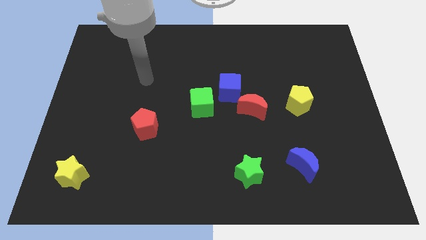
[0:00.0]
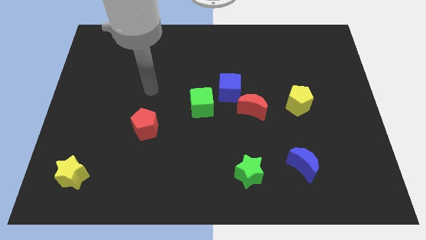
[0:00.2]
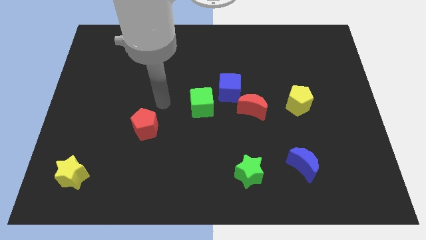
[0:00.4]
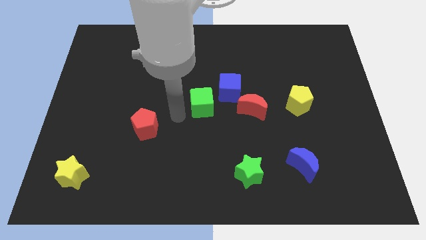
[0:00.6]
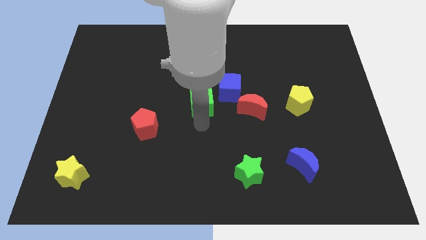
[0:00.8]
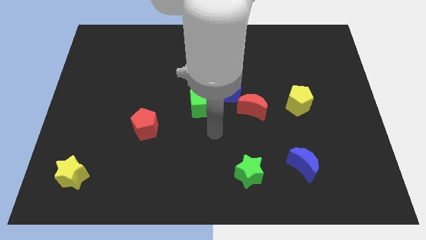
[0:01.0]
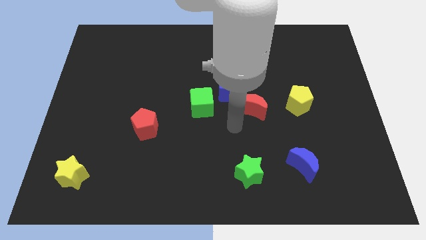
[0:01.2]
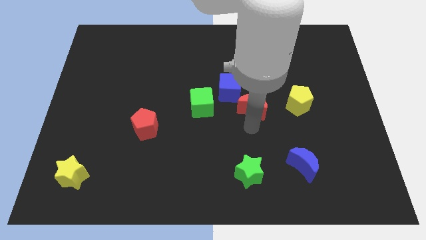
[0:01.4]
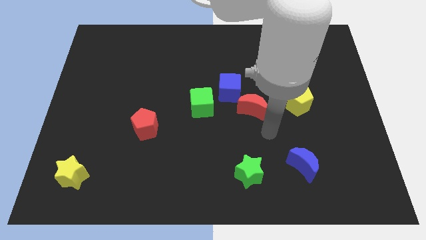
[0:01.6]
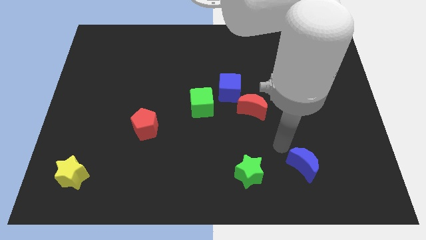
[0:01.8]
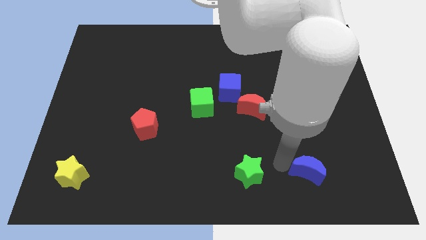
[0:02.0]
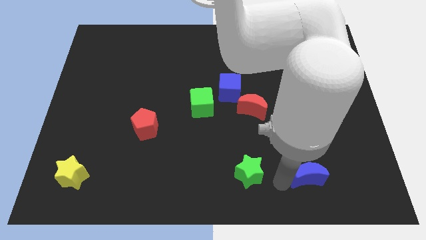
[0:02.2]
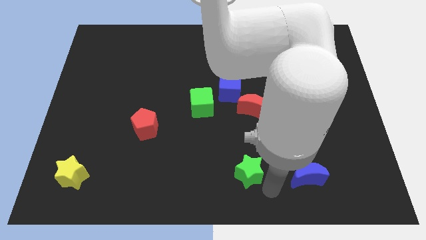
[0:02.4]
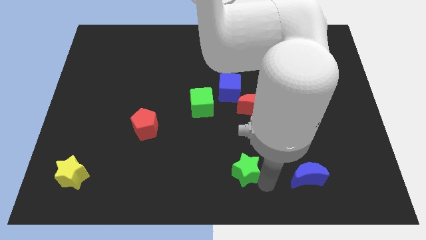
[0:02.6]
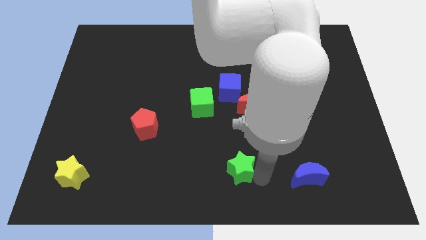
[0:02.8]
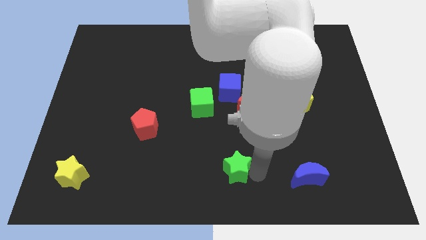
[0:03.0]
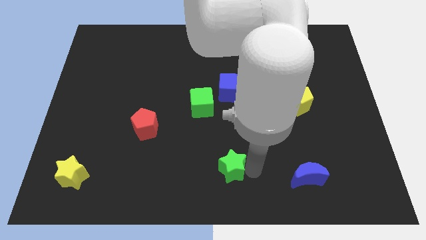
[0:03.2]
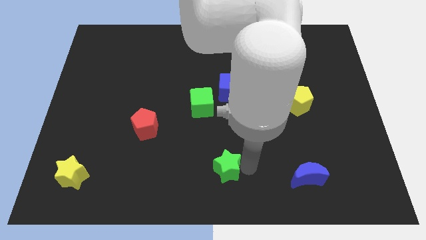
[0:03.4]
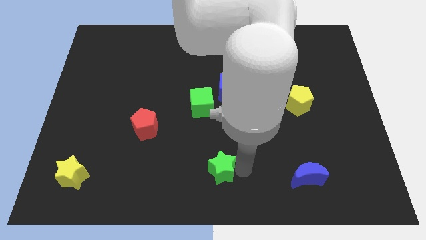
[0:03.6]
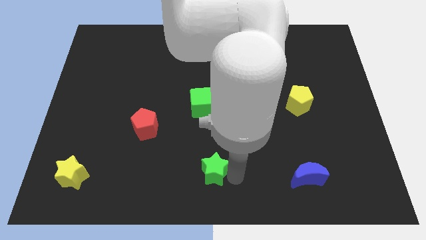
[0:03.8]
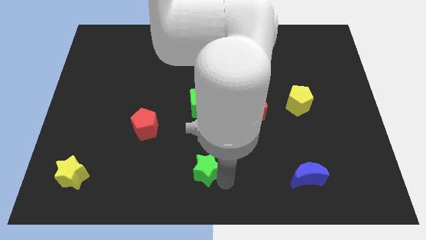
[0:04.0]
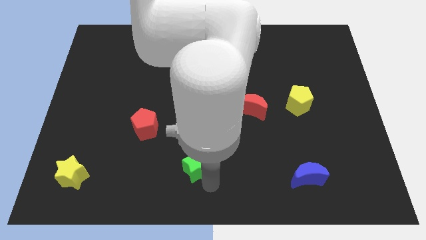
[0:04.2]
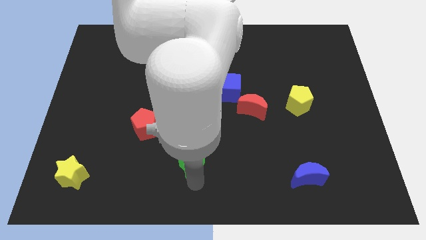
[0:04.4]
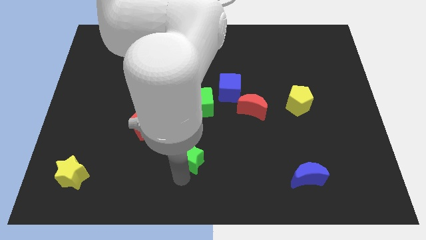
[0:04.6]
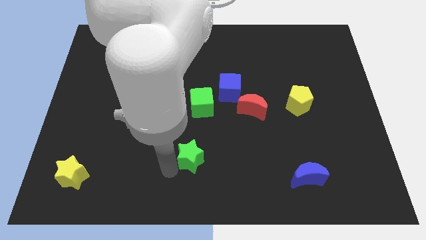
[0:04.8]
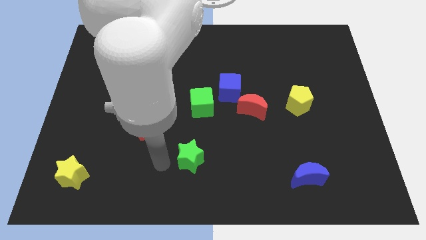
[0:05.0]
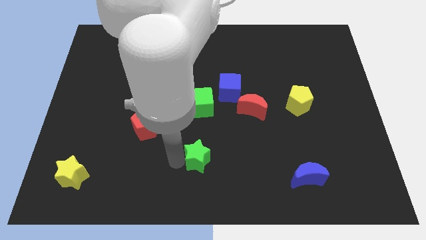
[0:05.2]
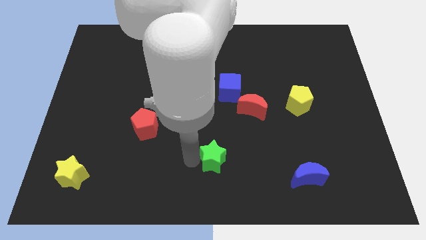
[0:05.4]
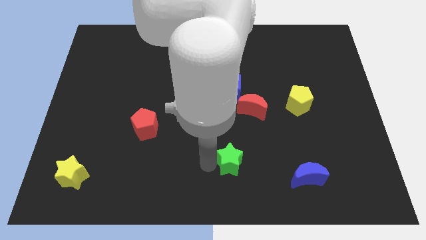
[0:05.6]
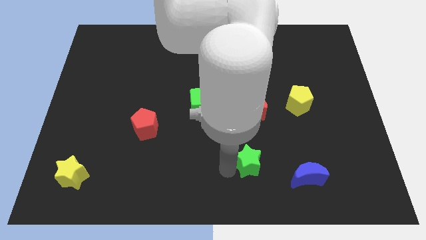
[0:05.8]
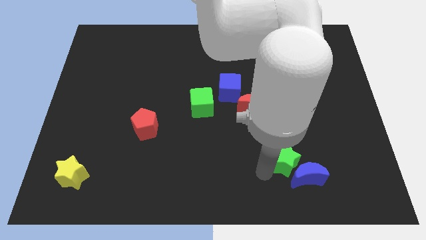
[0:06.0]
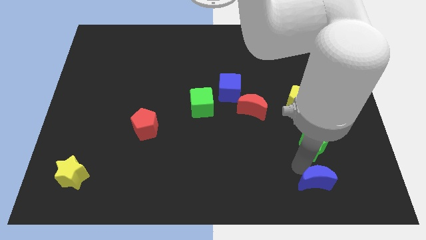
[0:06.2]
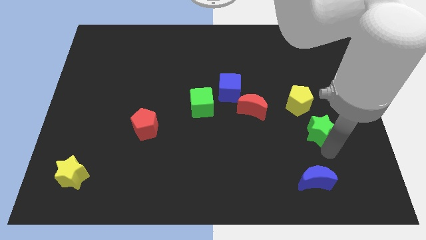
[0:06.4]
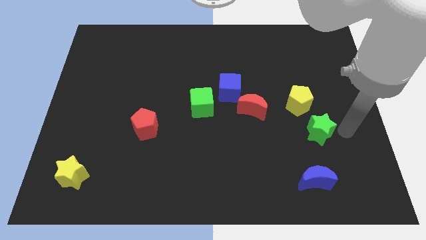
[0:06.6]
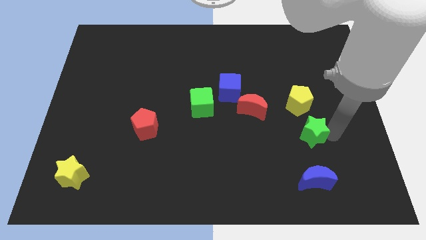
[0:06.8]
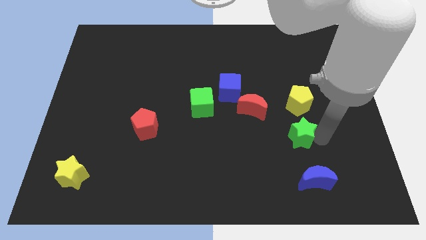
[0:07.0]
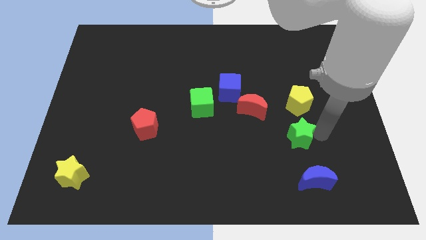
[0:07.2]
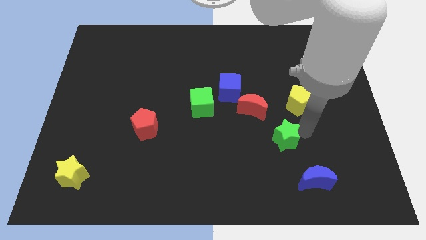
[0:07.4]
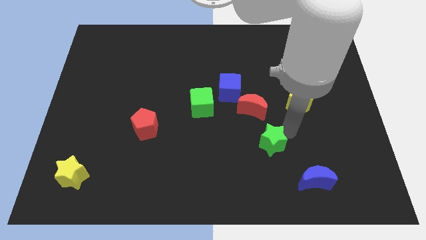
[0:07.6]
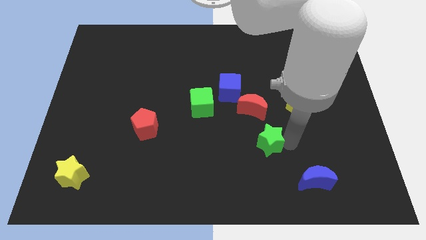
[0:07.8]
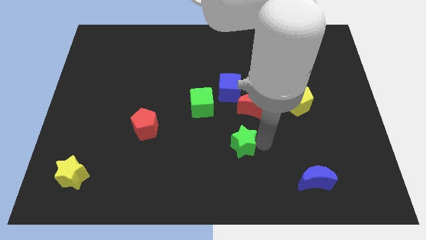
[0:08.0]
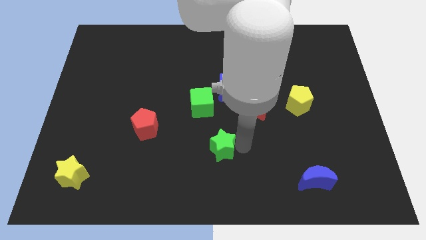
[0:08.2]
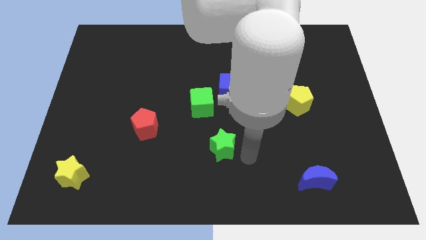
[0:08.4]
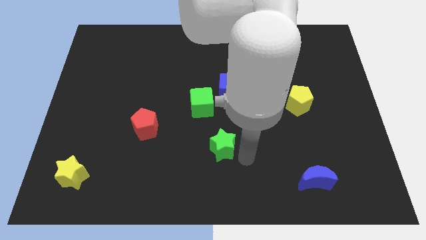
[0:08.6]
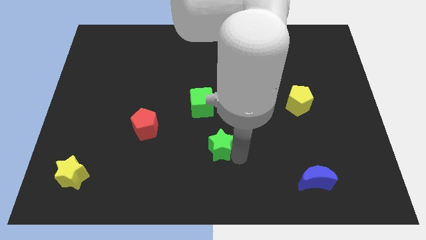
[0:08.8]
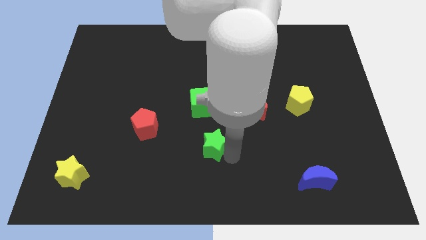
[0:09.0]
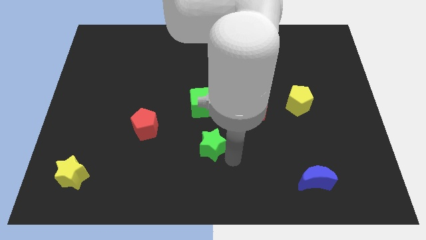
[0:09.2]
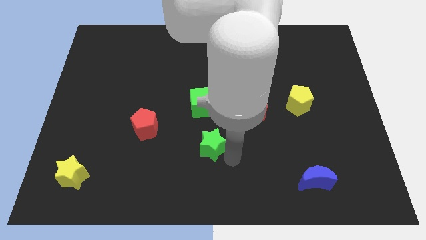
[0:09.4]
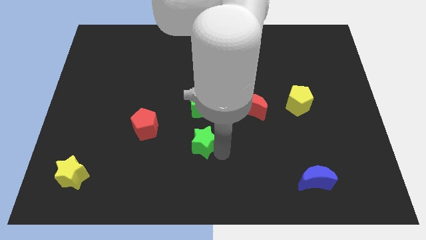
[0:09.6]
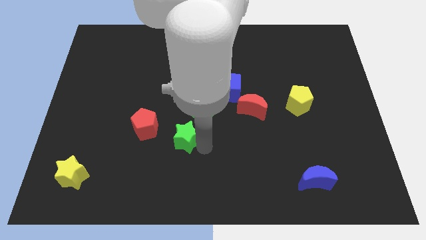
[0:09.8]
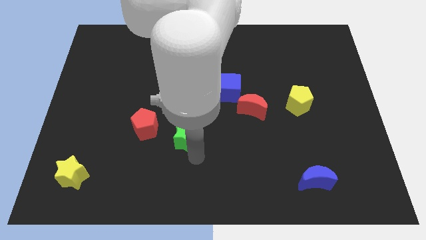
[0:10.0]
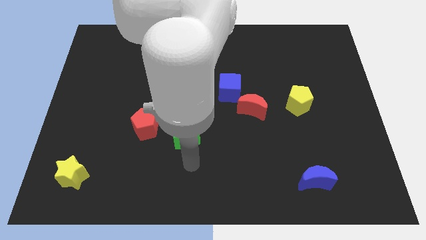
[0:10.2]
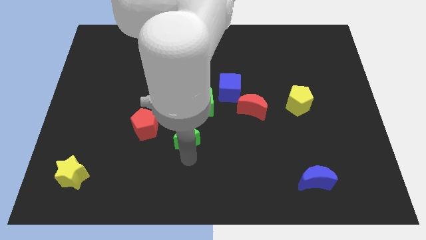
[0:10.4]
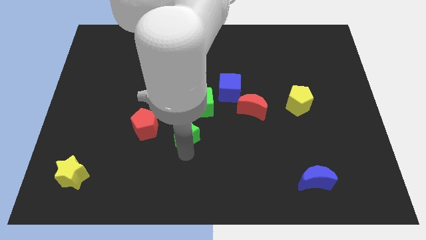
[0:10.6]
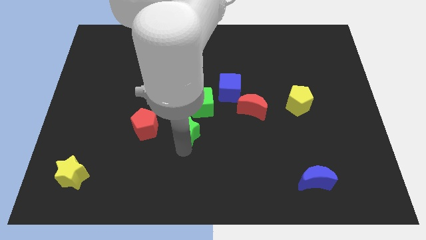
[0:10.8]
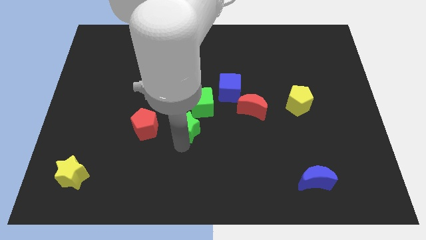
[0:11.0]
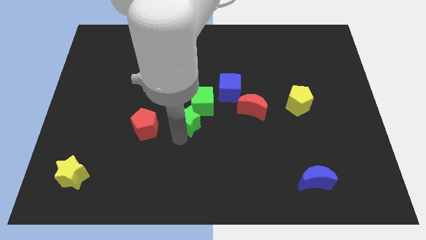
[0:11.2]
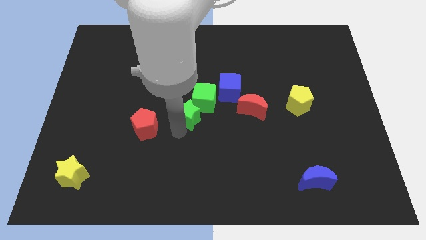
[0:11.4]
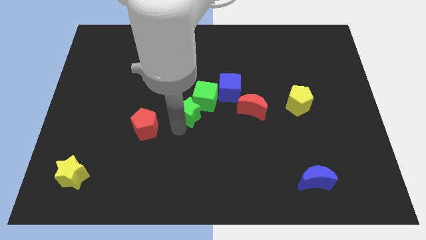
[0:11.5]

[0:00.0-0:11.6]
move the green star up and to the left diagonally

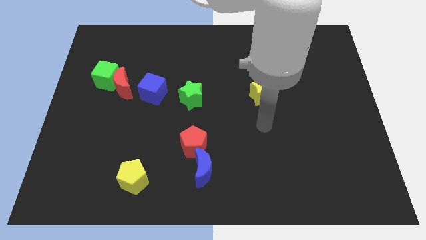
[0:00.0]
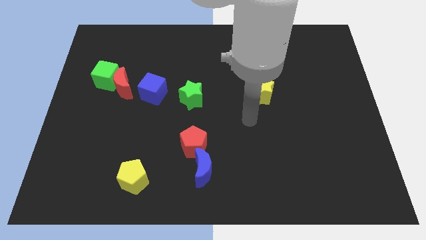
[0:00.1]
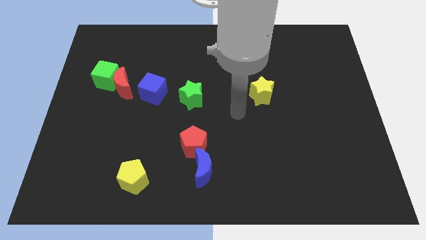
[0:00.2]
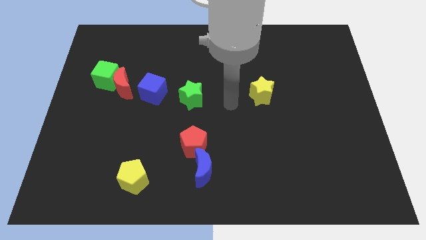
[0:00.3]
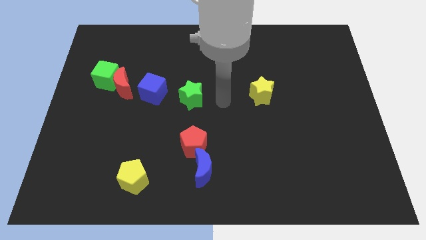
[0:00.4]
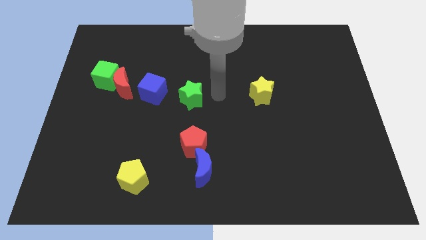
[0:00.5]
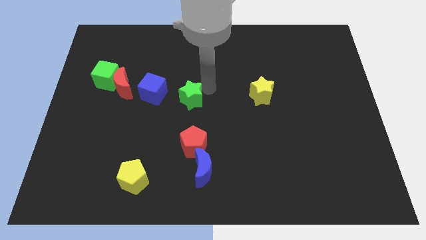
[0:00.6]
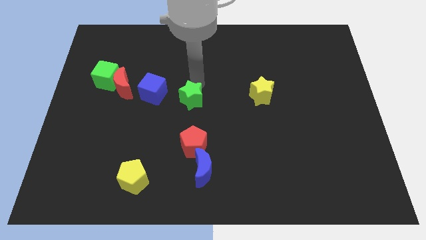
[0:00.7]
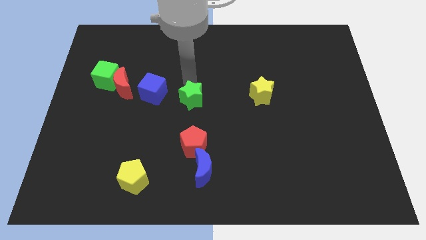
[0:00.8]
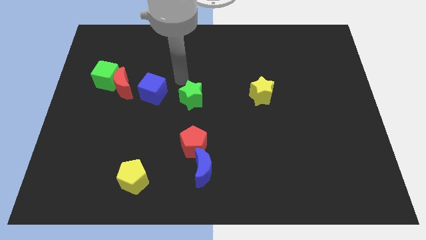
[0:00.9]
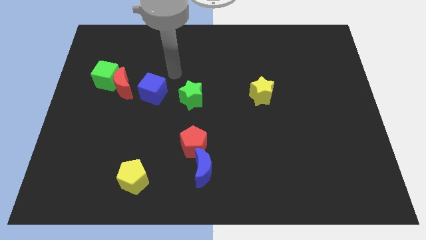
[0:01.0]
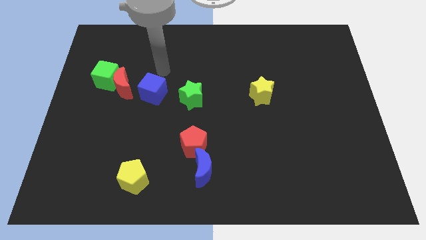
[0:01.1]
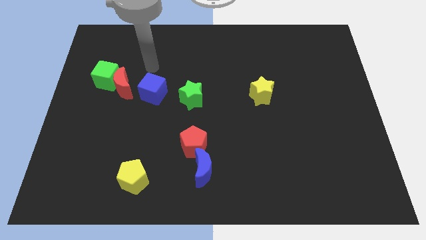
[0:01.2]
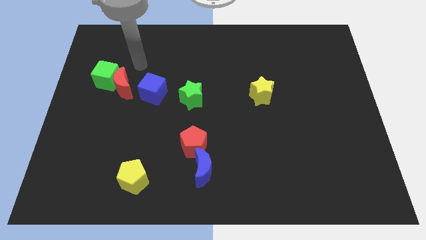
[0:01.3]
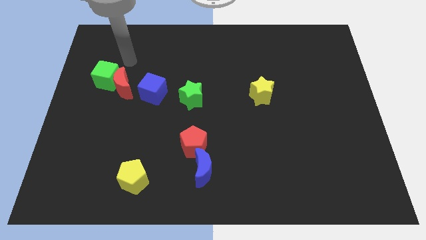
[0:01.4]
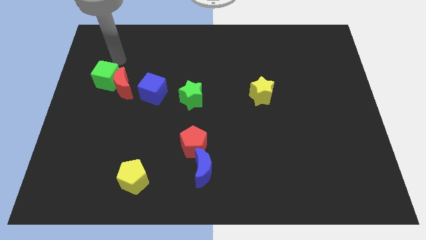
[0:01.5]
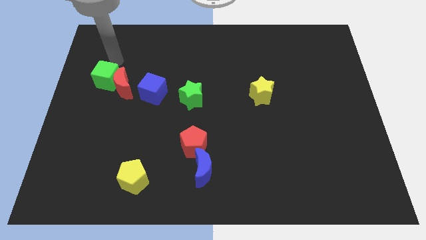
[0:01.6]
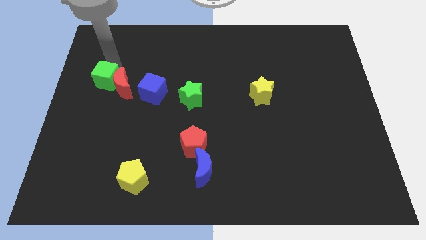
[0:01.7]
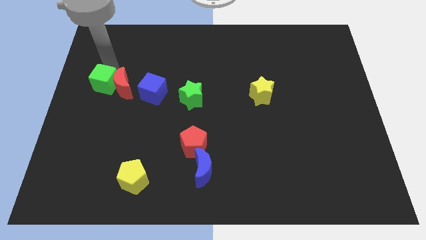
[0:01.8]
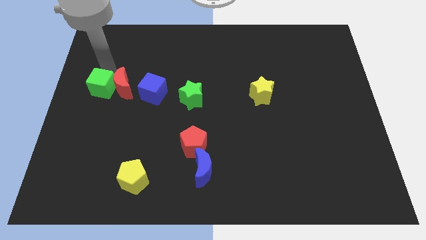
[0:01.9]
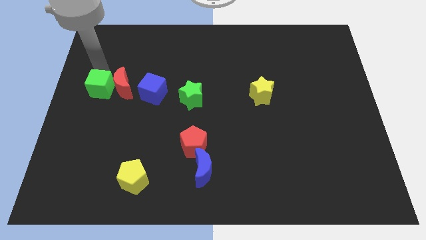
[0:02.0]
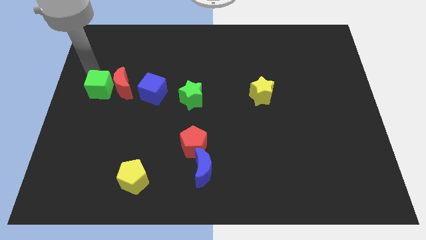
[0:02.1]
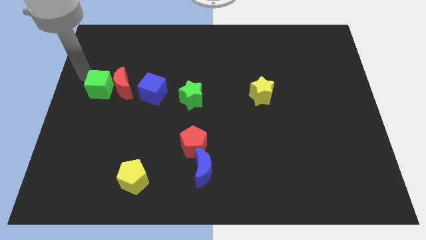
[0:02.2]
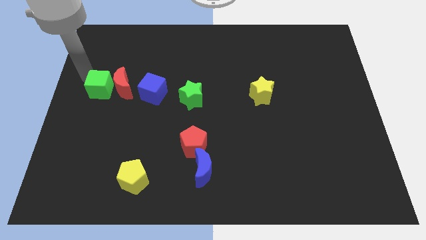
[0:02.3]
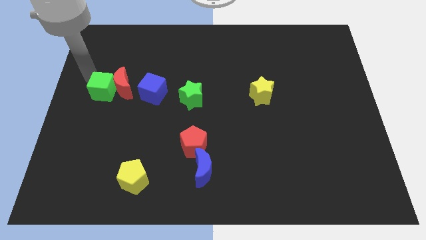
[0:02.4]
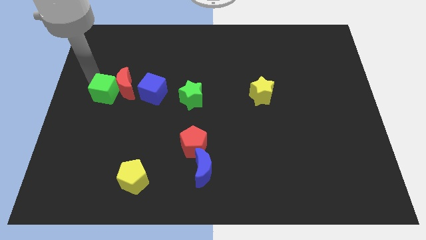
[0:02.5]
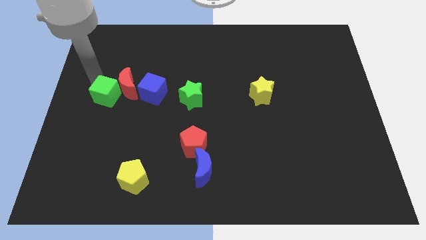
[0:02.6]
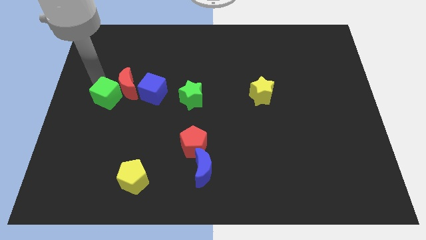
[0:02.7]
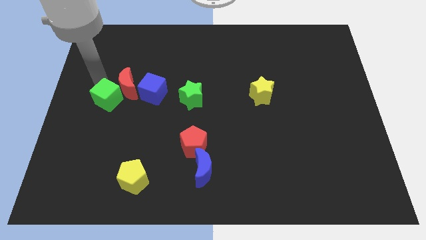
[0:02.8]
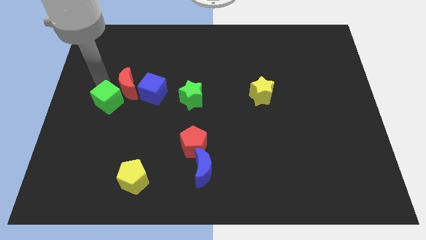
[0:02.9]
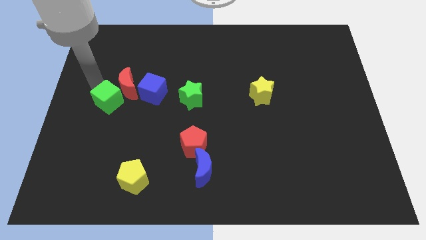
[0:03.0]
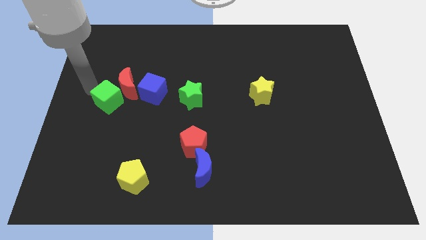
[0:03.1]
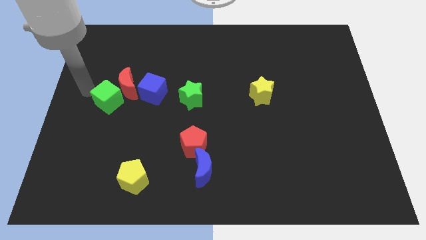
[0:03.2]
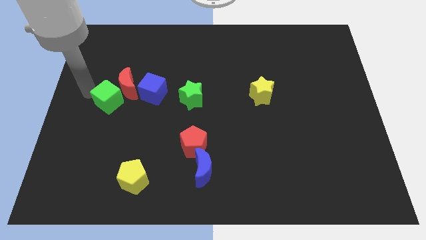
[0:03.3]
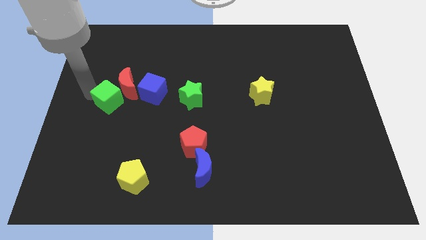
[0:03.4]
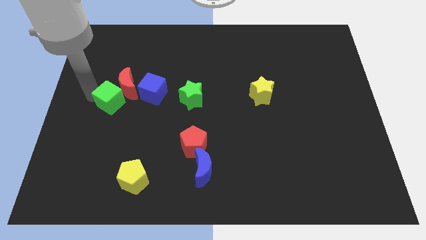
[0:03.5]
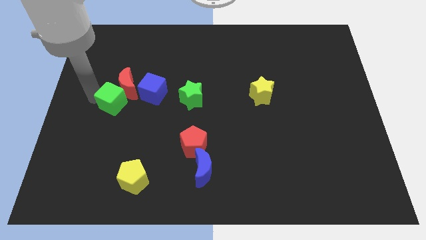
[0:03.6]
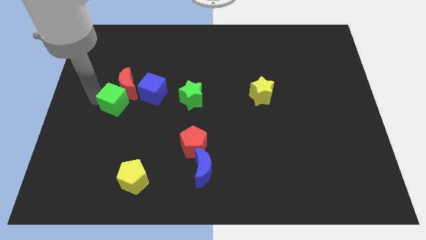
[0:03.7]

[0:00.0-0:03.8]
slightly move the green cube downwards and right
